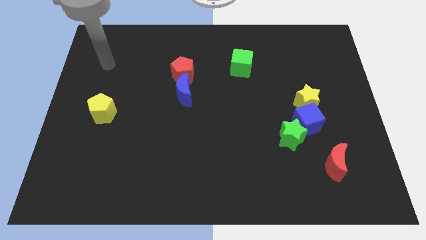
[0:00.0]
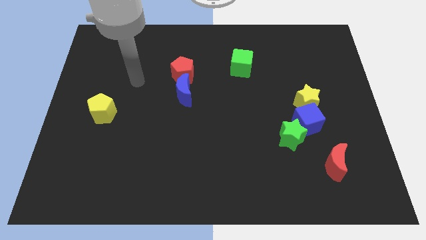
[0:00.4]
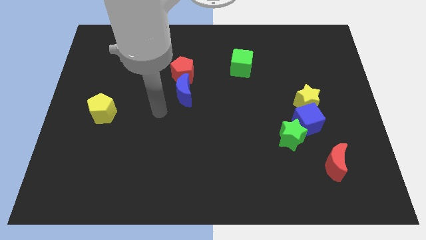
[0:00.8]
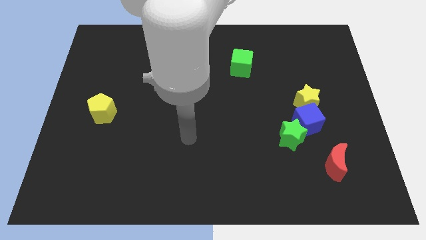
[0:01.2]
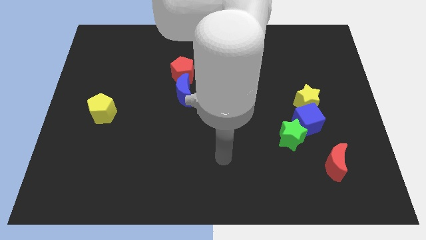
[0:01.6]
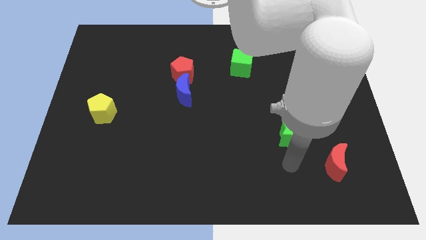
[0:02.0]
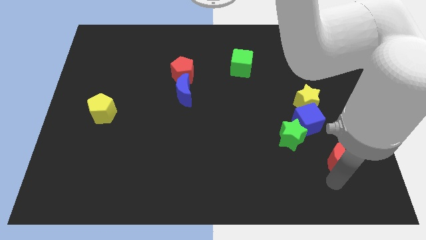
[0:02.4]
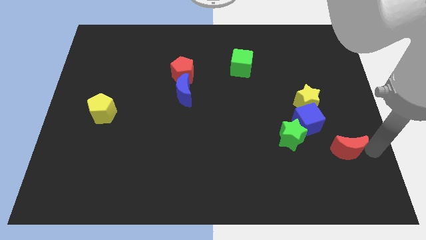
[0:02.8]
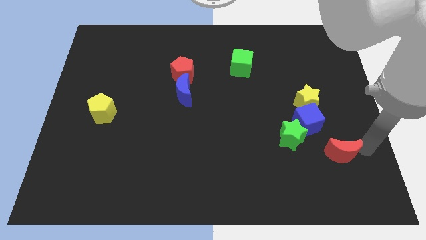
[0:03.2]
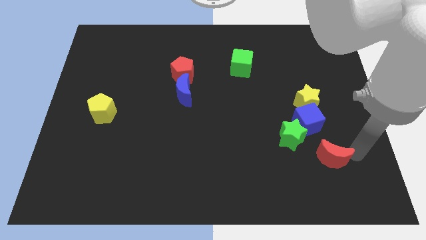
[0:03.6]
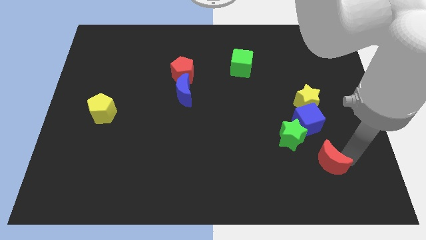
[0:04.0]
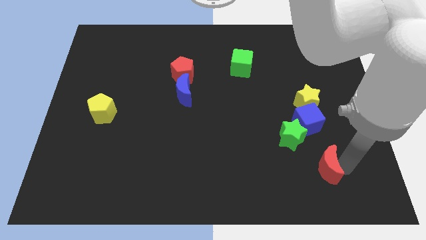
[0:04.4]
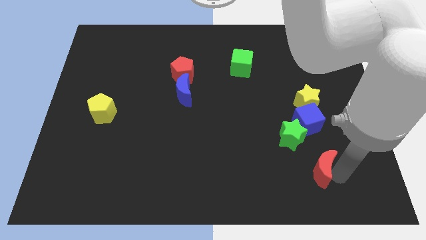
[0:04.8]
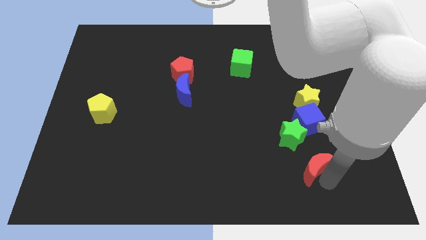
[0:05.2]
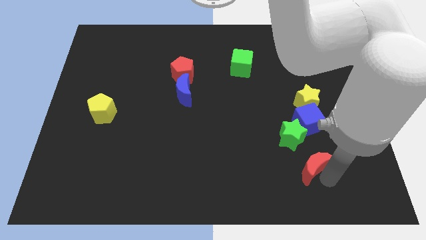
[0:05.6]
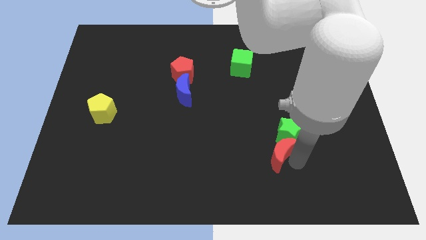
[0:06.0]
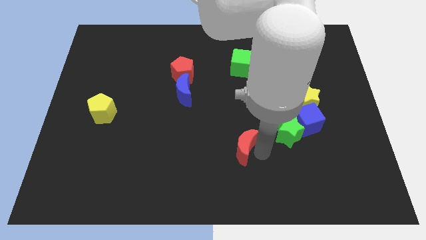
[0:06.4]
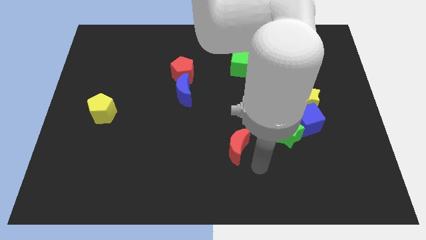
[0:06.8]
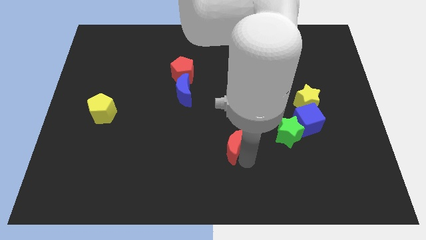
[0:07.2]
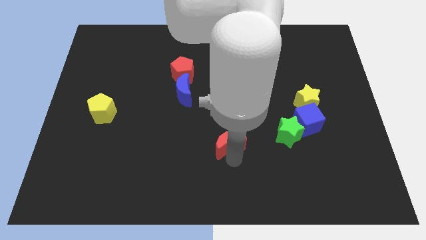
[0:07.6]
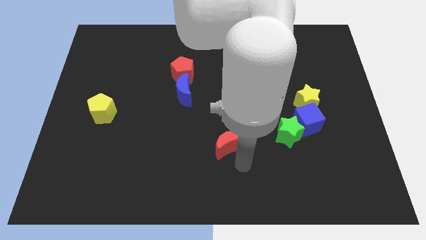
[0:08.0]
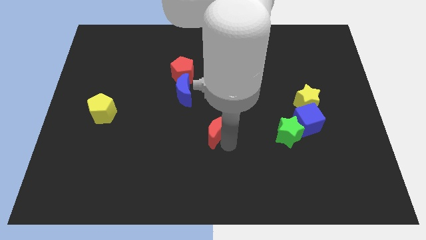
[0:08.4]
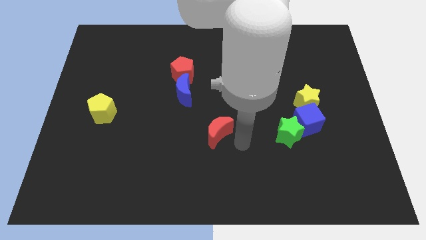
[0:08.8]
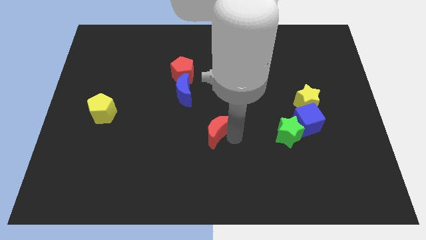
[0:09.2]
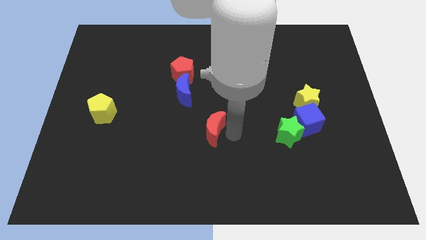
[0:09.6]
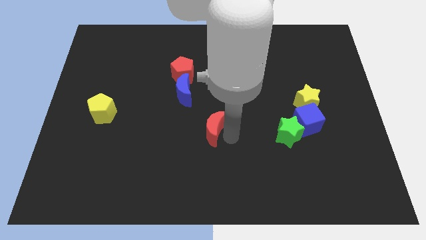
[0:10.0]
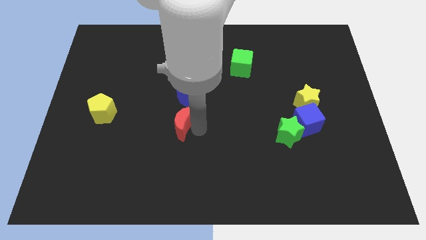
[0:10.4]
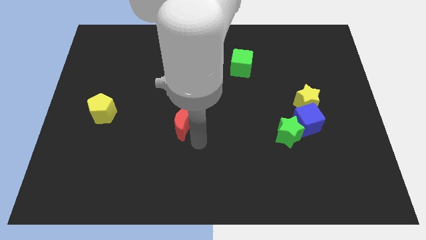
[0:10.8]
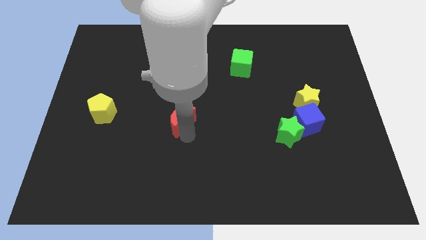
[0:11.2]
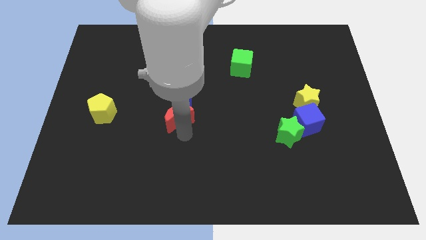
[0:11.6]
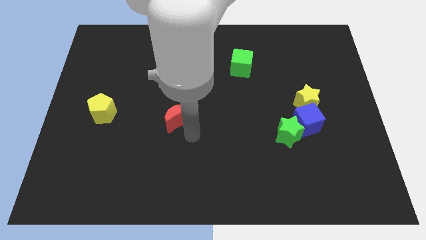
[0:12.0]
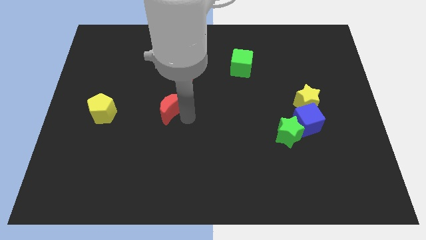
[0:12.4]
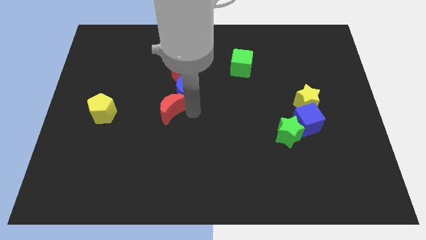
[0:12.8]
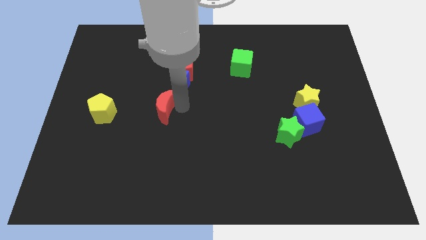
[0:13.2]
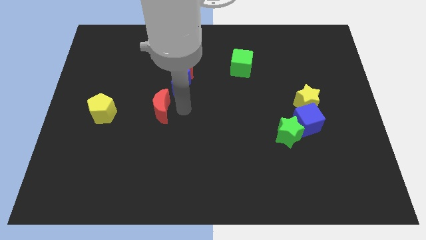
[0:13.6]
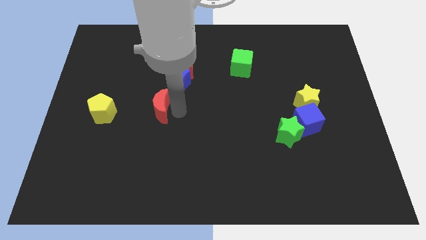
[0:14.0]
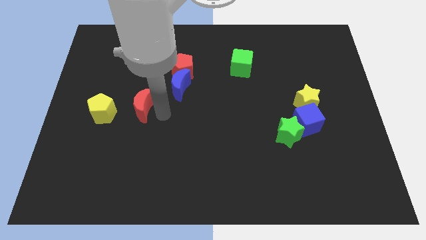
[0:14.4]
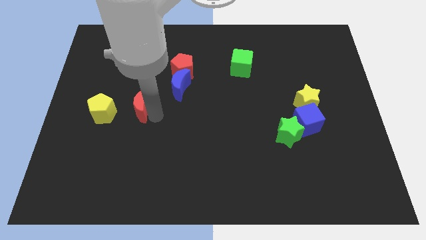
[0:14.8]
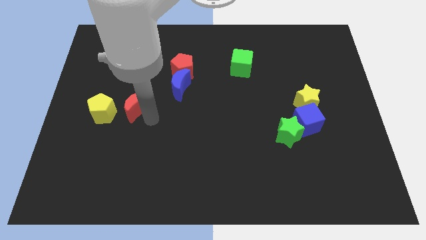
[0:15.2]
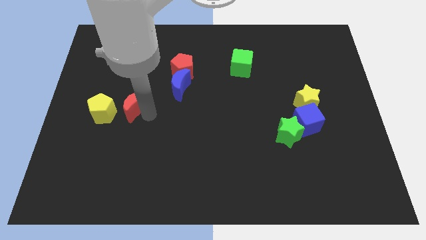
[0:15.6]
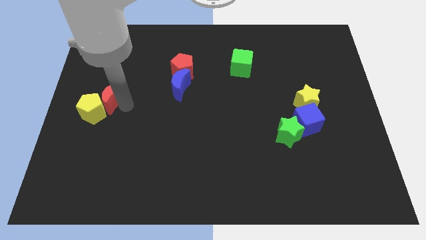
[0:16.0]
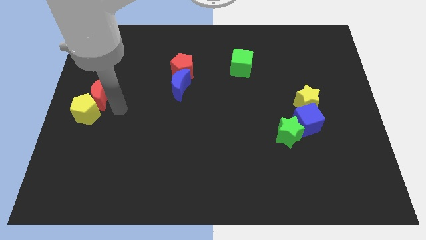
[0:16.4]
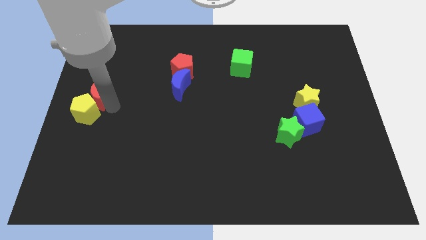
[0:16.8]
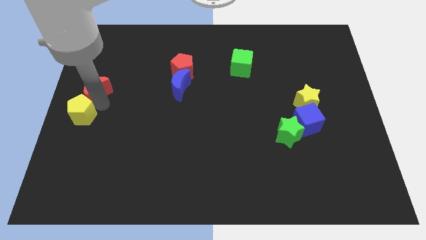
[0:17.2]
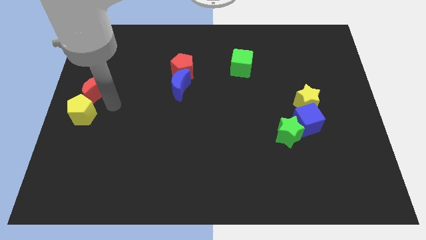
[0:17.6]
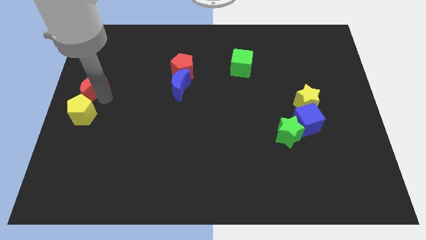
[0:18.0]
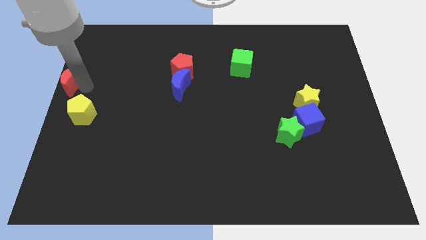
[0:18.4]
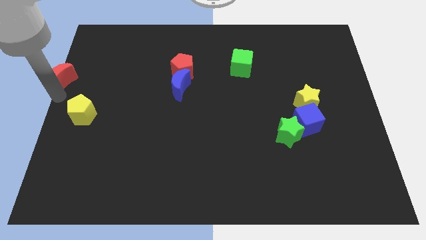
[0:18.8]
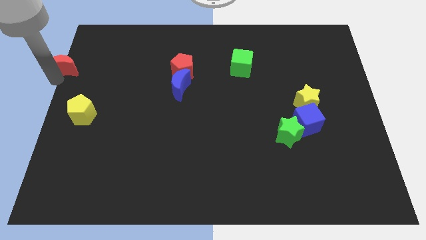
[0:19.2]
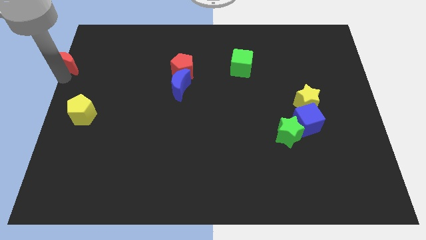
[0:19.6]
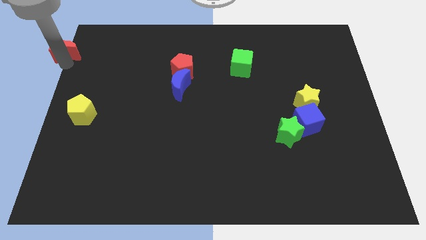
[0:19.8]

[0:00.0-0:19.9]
push the red moon to the top left of the board

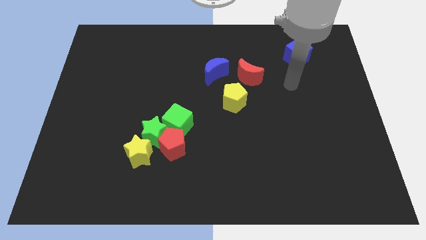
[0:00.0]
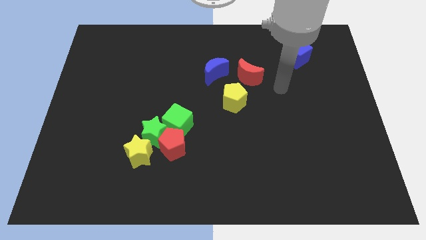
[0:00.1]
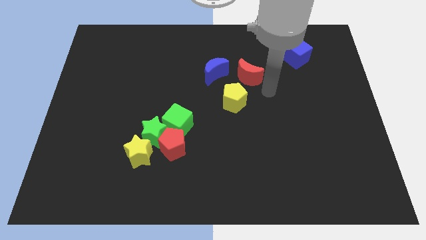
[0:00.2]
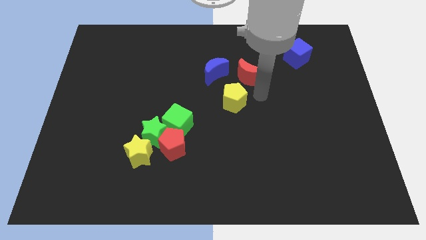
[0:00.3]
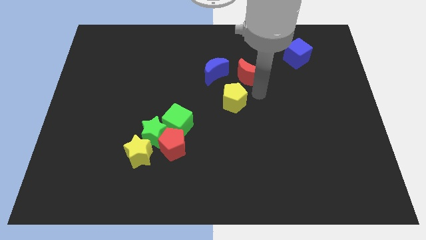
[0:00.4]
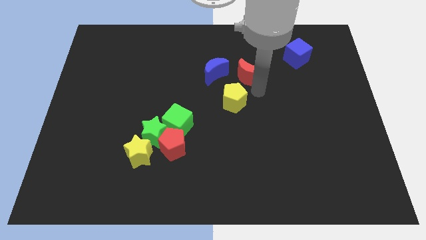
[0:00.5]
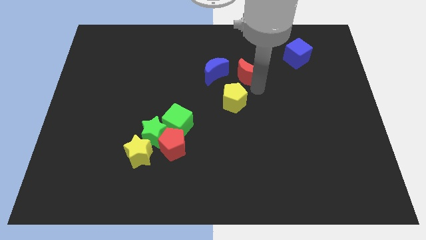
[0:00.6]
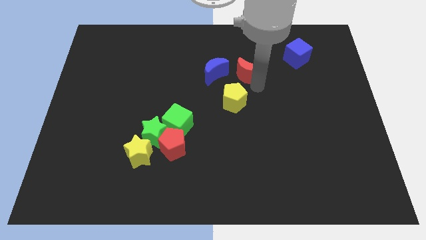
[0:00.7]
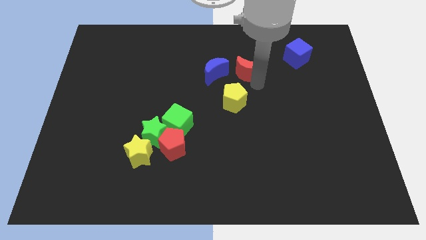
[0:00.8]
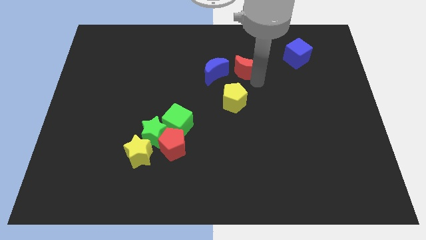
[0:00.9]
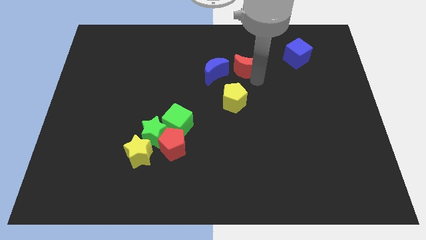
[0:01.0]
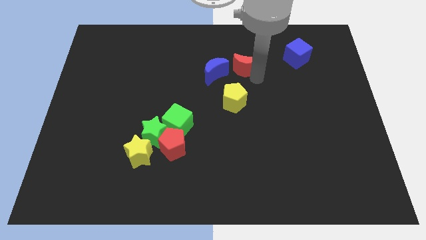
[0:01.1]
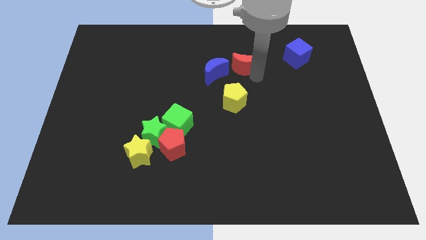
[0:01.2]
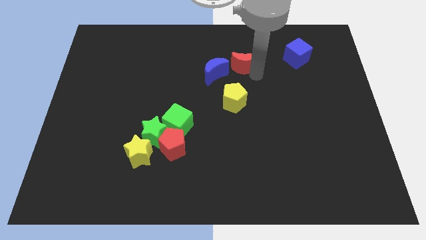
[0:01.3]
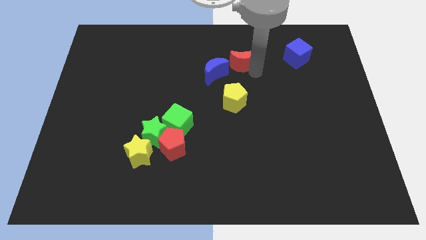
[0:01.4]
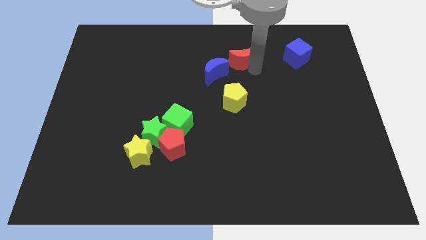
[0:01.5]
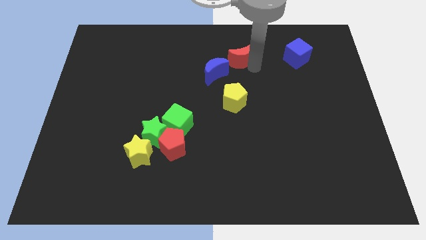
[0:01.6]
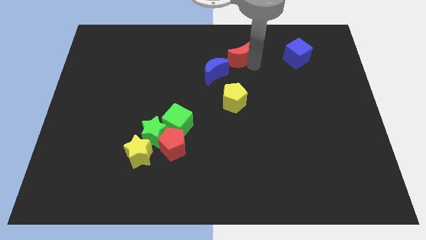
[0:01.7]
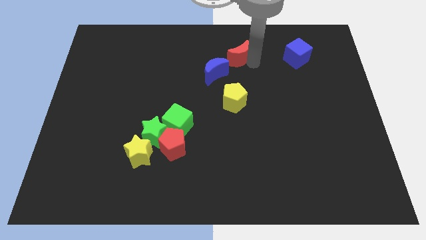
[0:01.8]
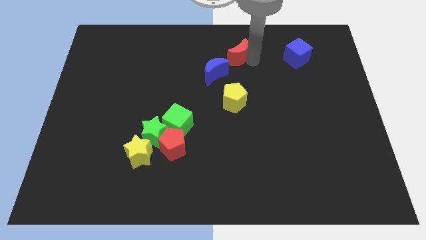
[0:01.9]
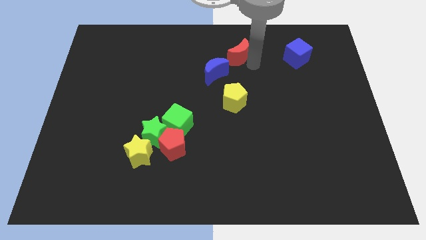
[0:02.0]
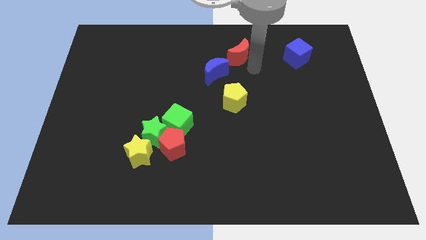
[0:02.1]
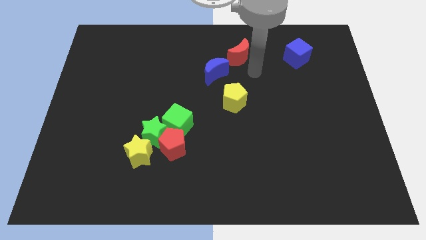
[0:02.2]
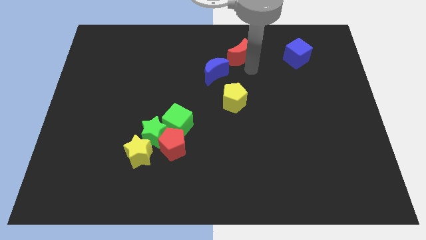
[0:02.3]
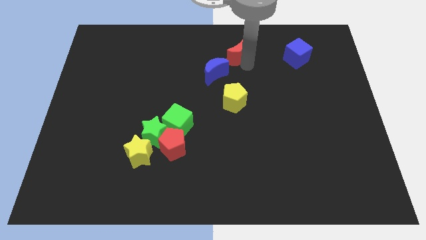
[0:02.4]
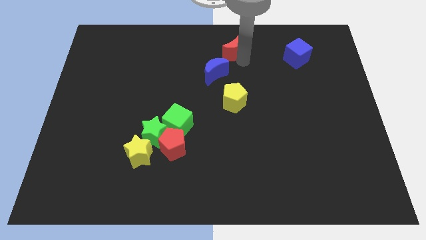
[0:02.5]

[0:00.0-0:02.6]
push the red moon to the towards your base
